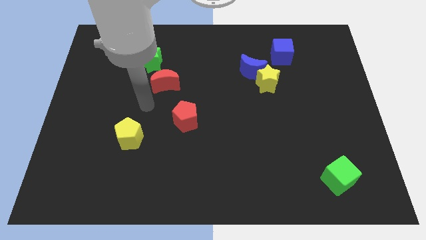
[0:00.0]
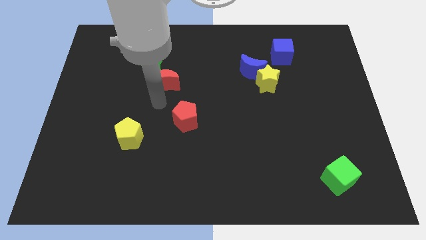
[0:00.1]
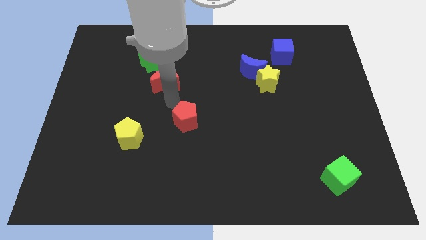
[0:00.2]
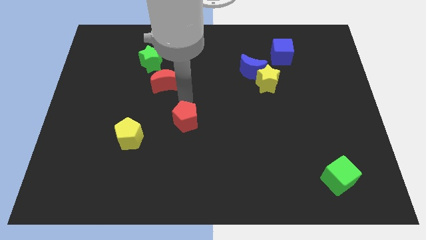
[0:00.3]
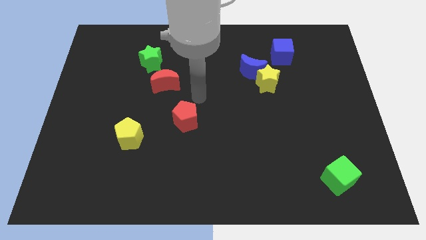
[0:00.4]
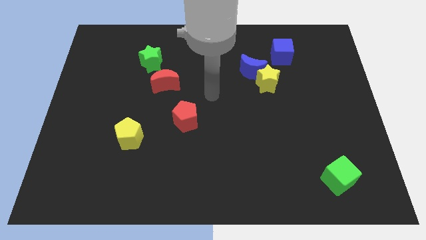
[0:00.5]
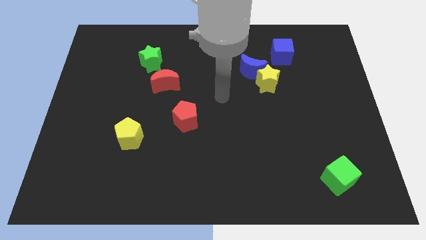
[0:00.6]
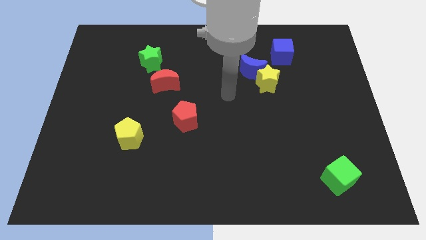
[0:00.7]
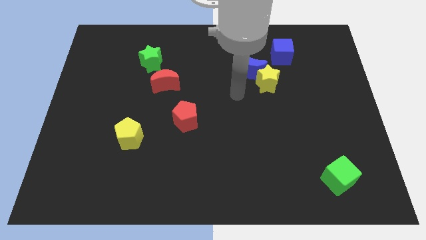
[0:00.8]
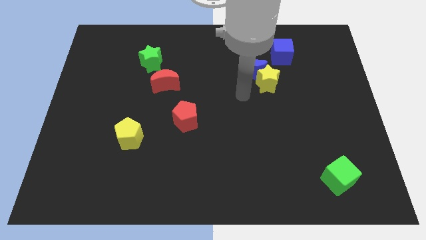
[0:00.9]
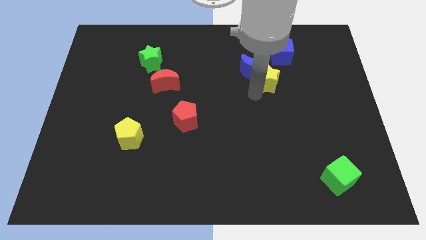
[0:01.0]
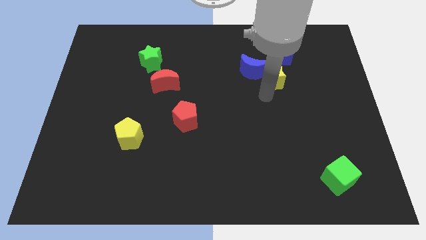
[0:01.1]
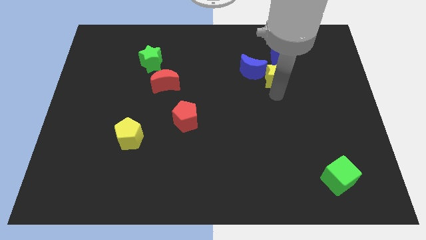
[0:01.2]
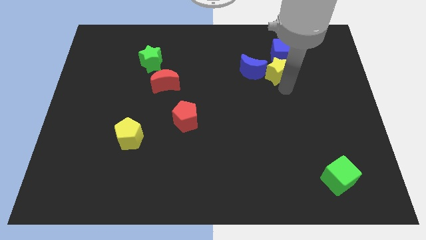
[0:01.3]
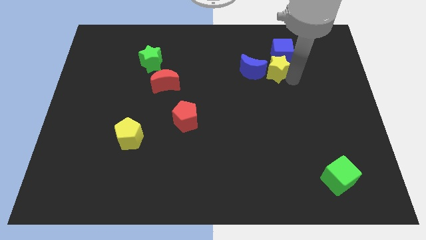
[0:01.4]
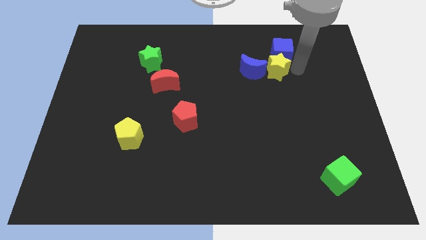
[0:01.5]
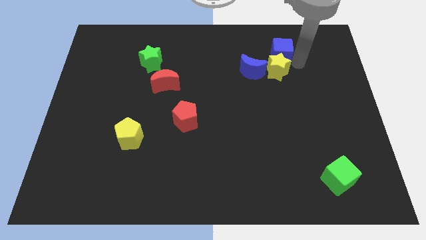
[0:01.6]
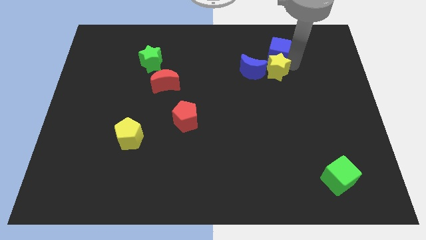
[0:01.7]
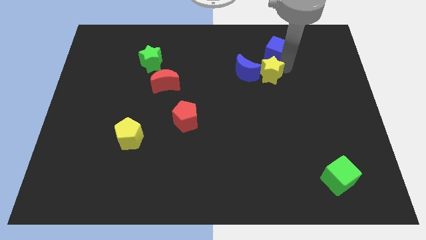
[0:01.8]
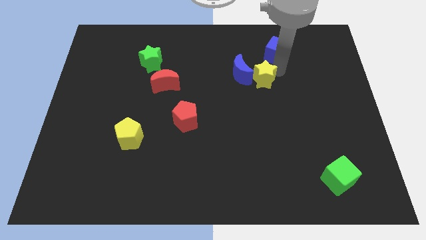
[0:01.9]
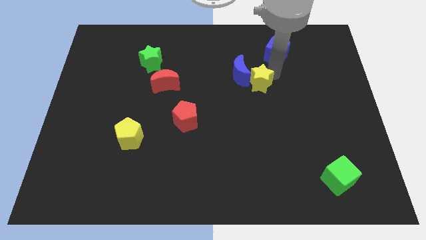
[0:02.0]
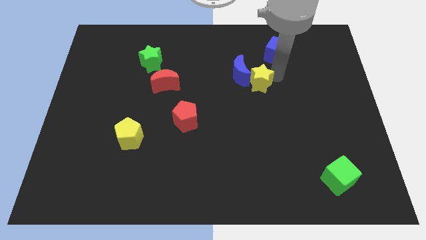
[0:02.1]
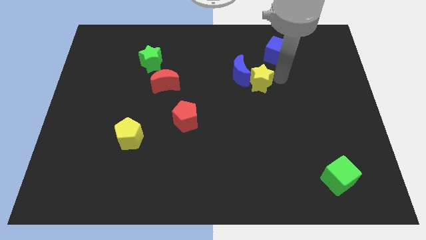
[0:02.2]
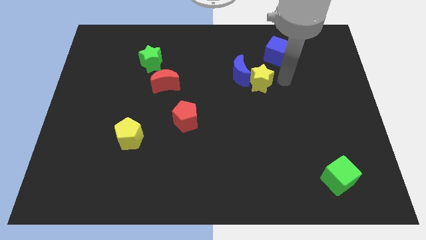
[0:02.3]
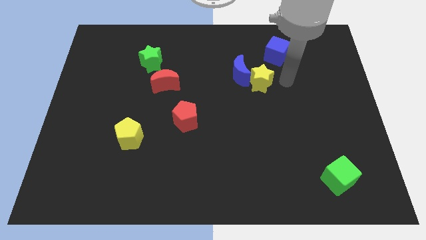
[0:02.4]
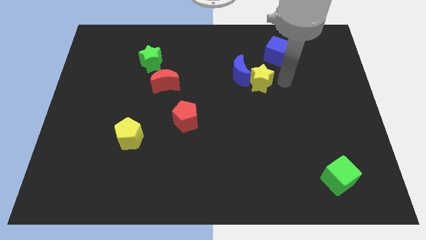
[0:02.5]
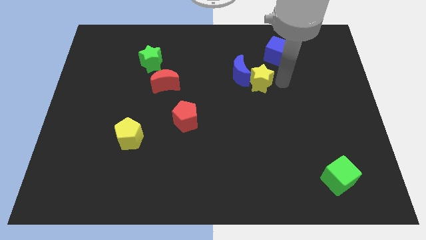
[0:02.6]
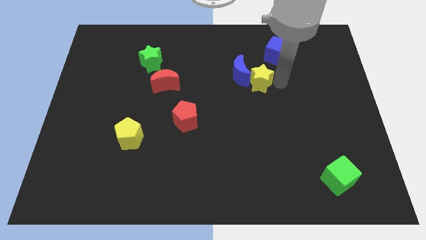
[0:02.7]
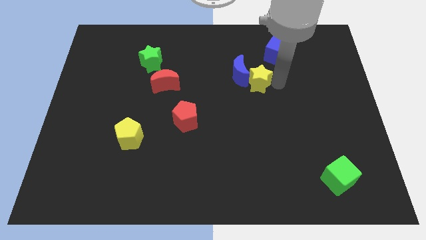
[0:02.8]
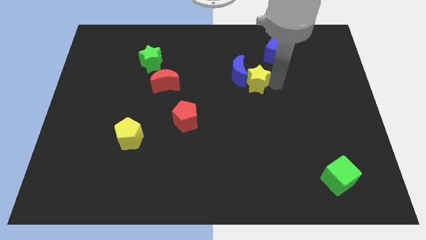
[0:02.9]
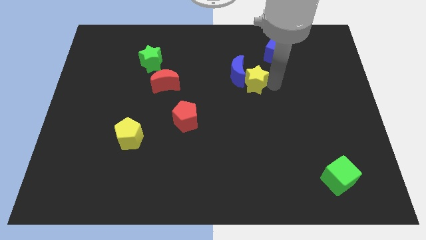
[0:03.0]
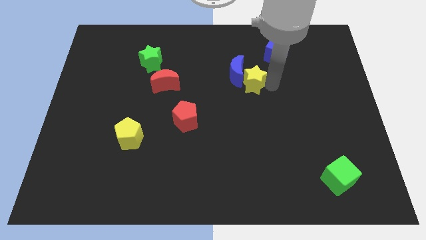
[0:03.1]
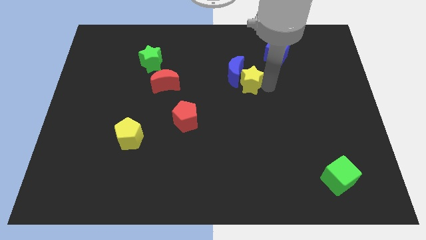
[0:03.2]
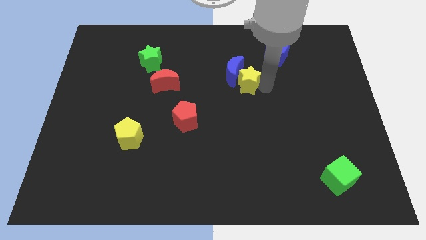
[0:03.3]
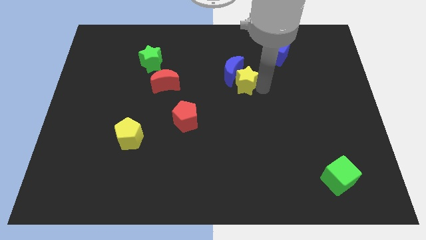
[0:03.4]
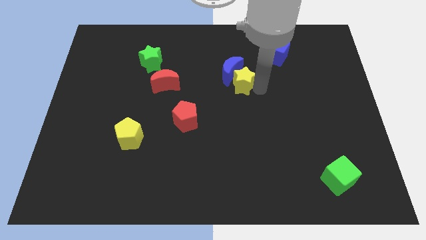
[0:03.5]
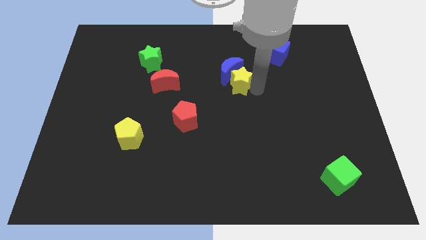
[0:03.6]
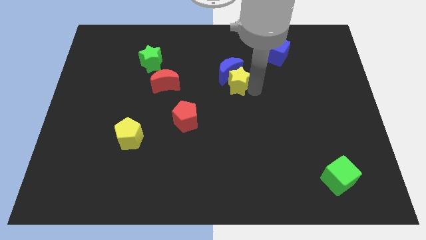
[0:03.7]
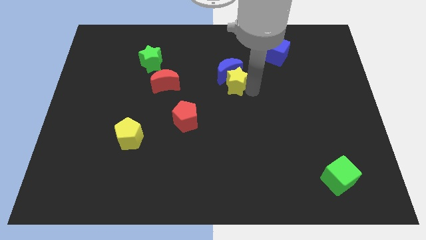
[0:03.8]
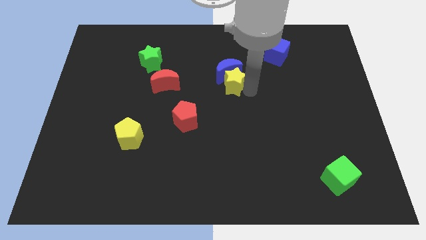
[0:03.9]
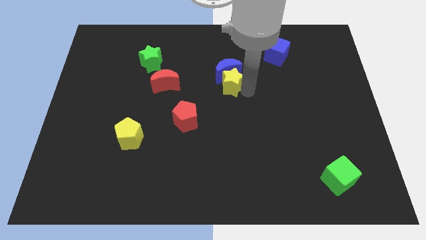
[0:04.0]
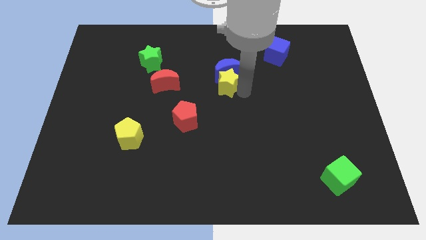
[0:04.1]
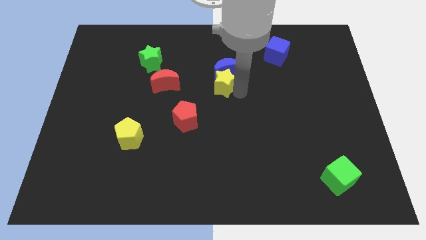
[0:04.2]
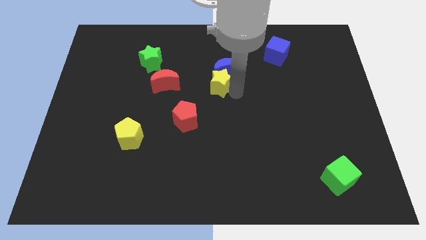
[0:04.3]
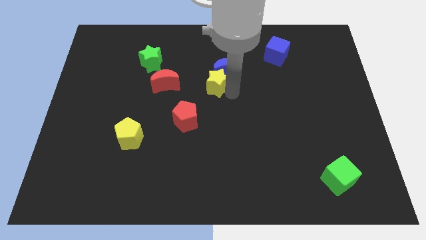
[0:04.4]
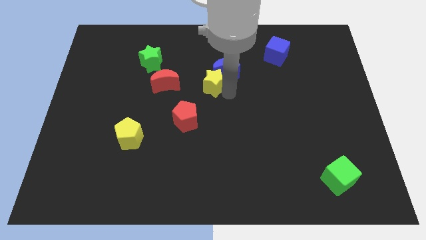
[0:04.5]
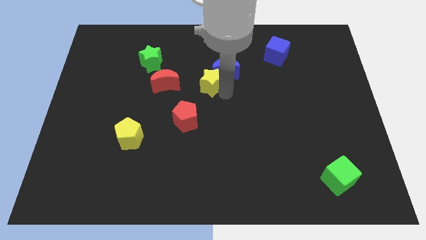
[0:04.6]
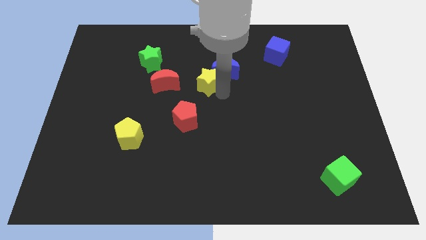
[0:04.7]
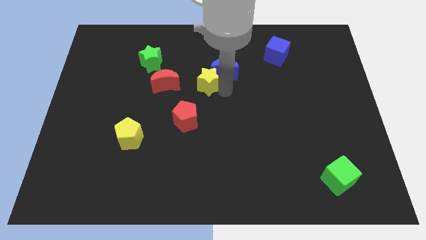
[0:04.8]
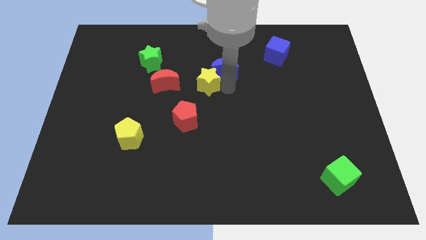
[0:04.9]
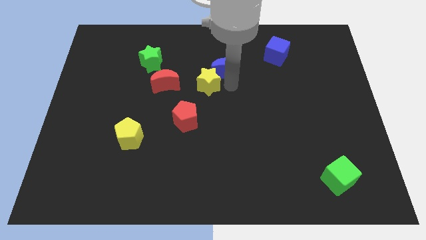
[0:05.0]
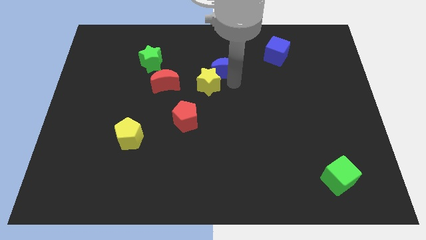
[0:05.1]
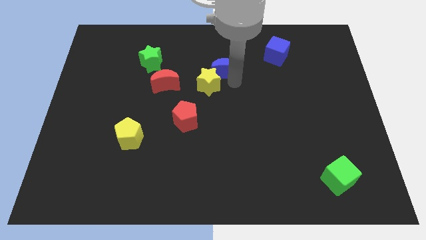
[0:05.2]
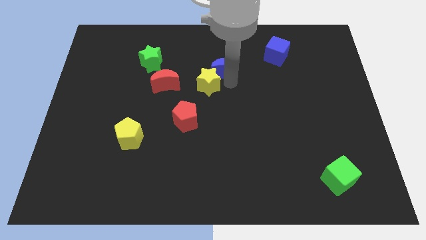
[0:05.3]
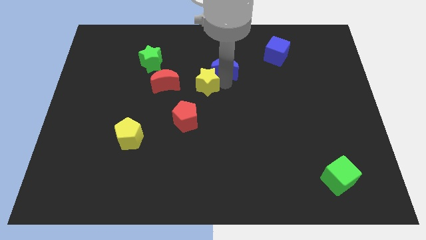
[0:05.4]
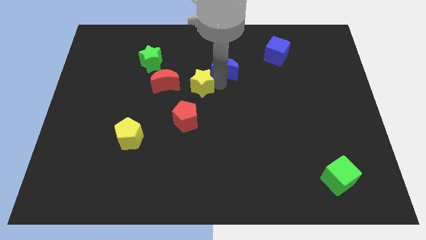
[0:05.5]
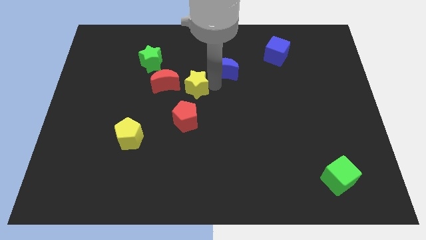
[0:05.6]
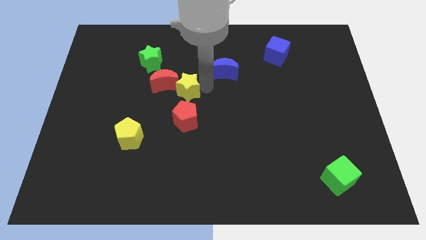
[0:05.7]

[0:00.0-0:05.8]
slide the yellow star to the red moon
